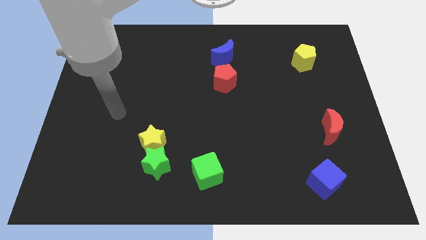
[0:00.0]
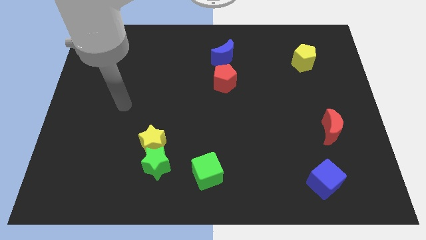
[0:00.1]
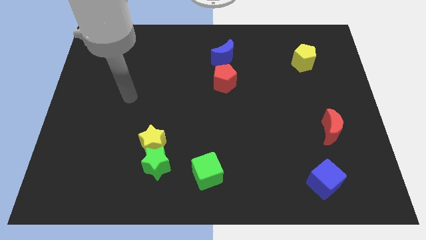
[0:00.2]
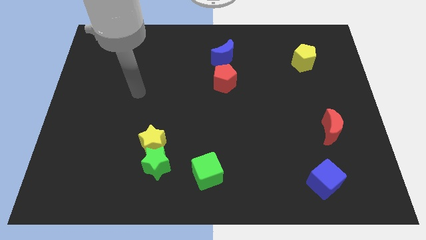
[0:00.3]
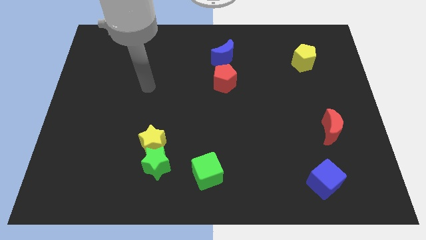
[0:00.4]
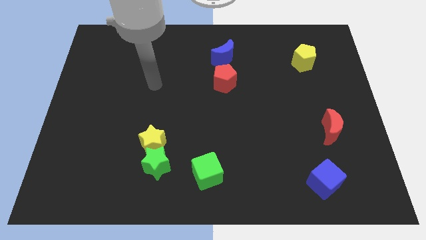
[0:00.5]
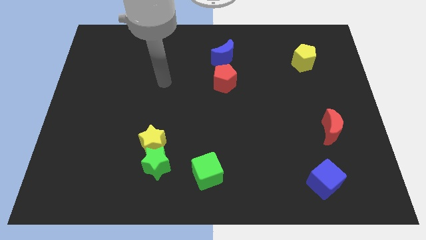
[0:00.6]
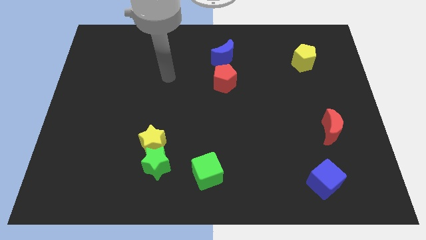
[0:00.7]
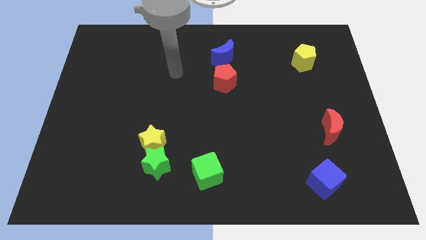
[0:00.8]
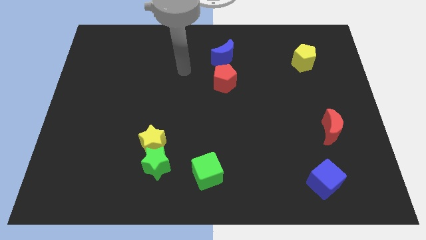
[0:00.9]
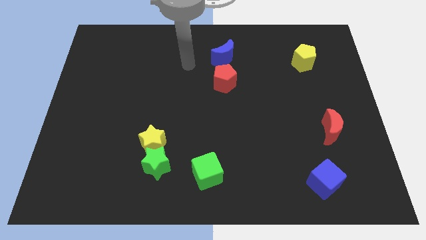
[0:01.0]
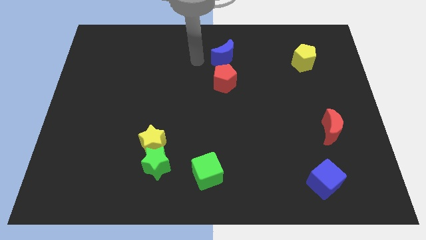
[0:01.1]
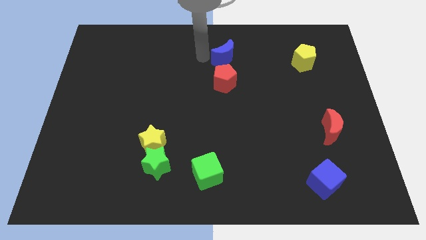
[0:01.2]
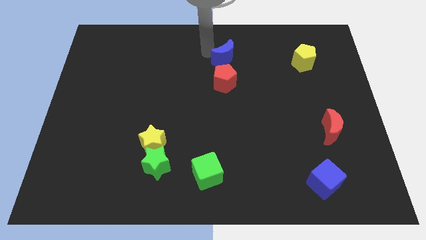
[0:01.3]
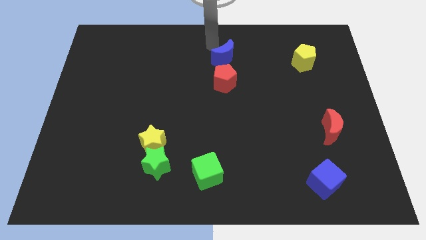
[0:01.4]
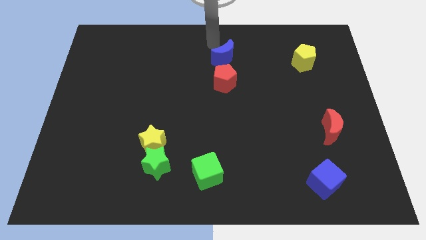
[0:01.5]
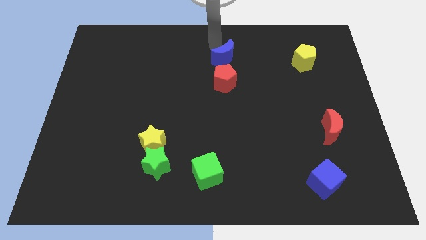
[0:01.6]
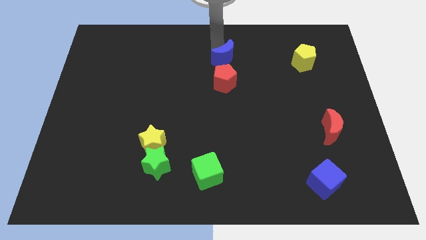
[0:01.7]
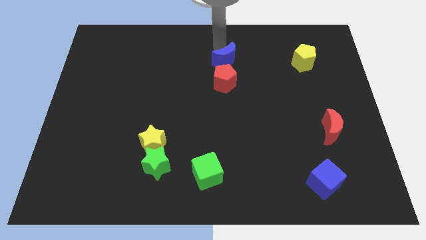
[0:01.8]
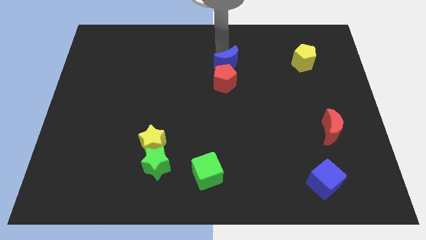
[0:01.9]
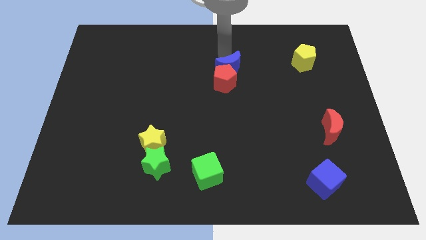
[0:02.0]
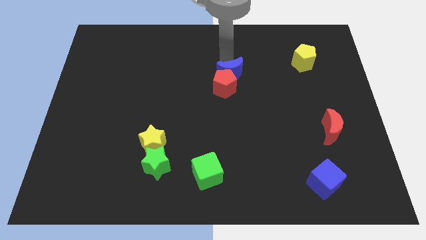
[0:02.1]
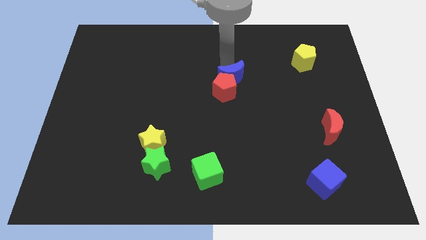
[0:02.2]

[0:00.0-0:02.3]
push the blue moon downwards a little bit

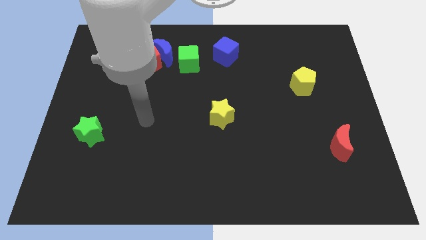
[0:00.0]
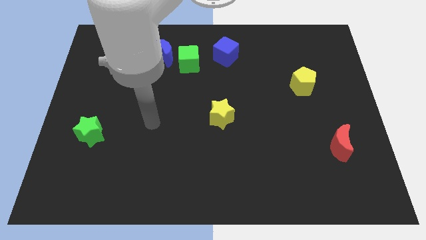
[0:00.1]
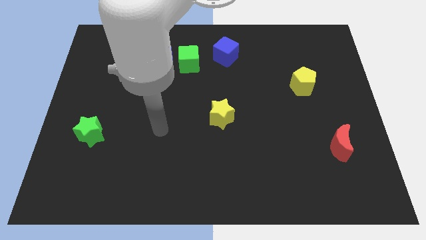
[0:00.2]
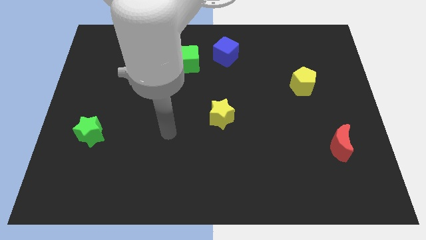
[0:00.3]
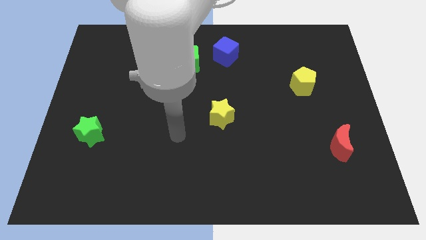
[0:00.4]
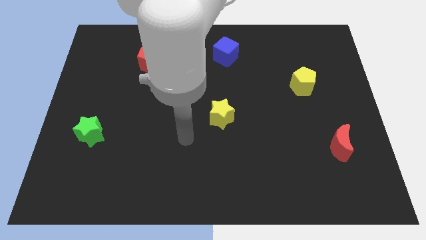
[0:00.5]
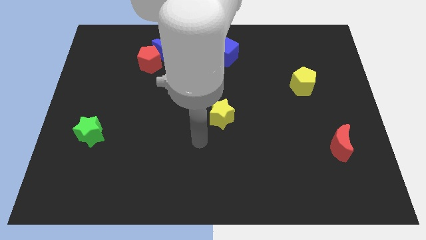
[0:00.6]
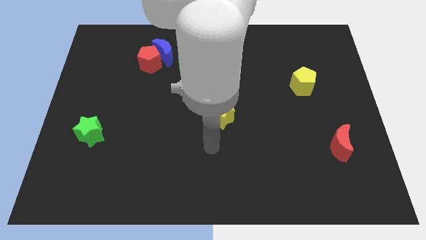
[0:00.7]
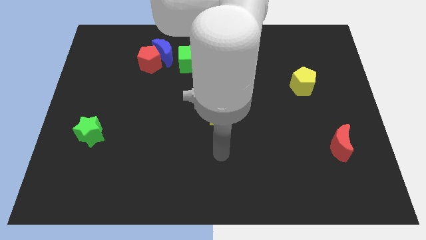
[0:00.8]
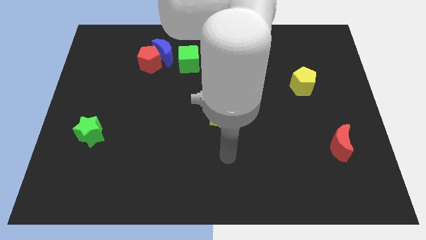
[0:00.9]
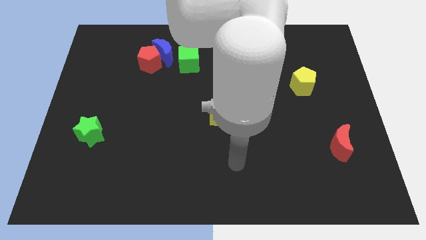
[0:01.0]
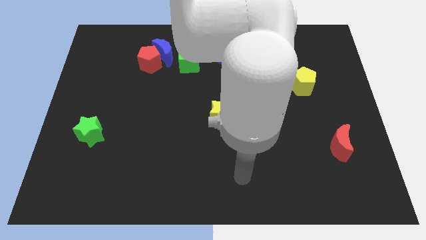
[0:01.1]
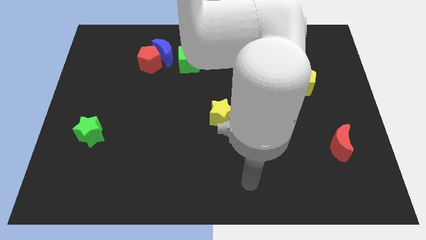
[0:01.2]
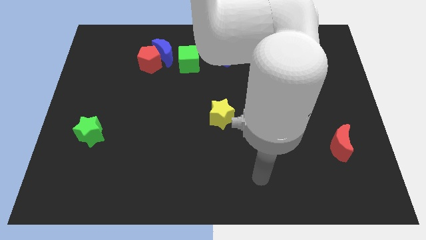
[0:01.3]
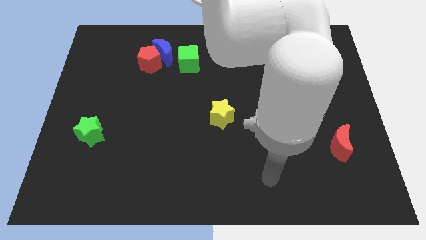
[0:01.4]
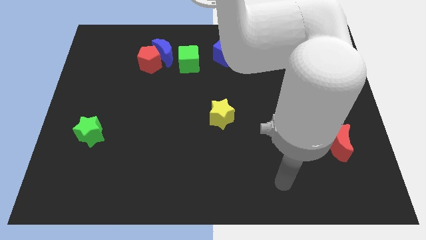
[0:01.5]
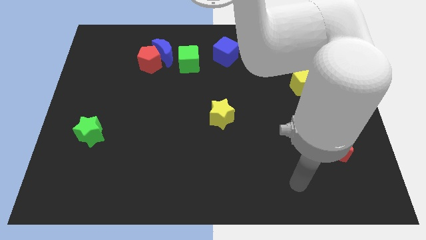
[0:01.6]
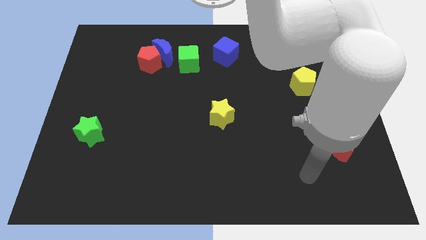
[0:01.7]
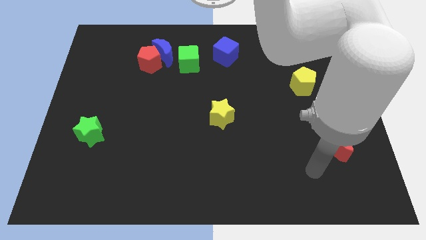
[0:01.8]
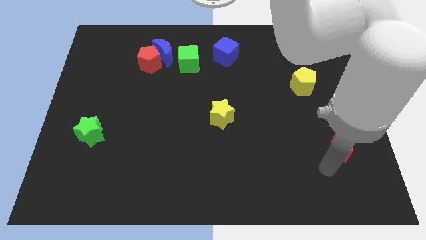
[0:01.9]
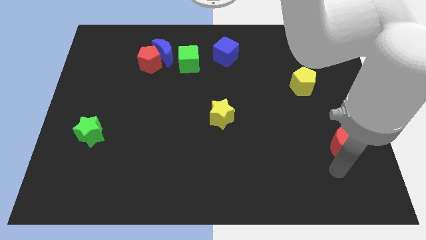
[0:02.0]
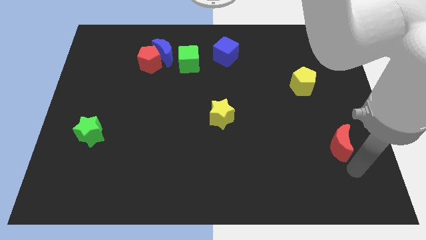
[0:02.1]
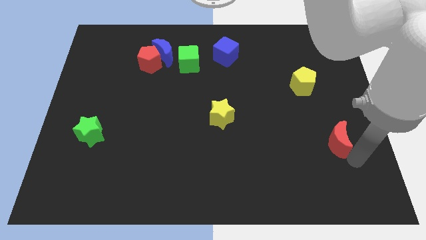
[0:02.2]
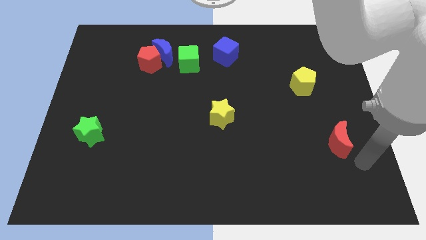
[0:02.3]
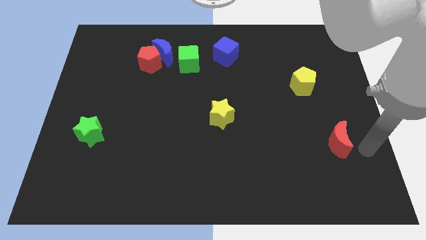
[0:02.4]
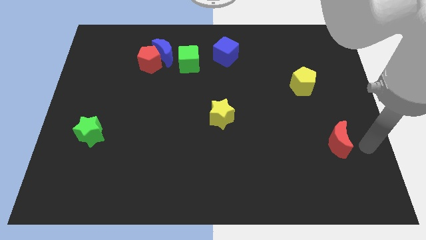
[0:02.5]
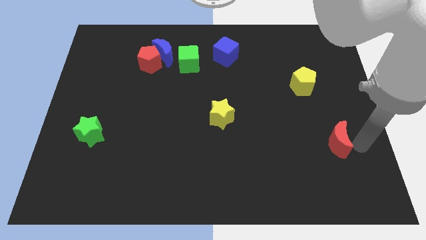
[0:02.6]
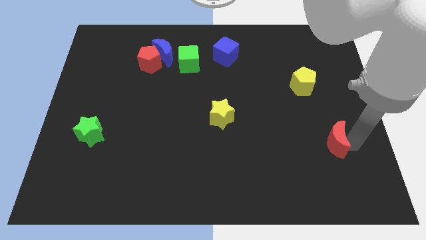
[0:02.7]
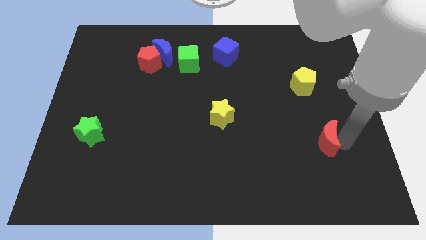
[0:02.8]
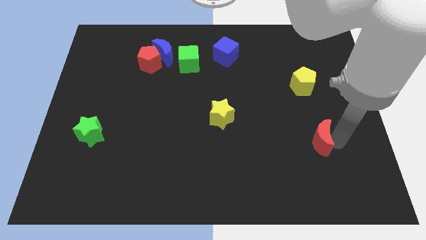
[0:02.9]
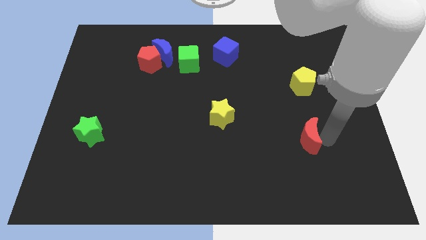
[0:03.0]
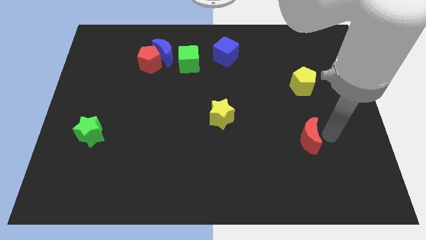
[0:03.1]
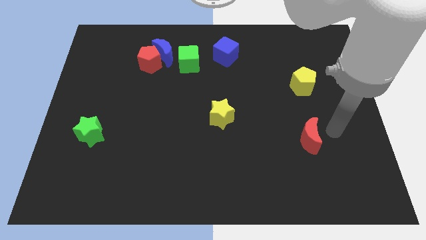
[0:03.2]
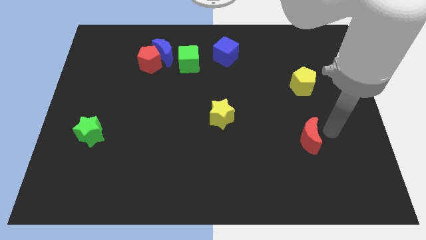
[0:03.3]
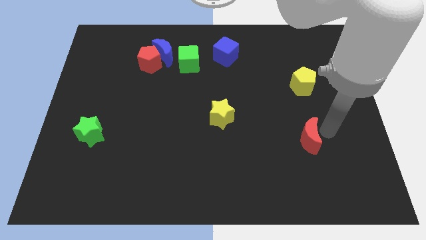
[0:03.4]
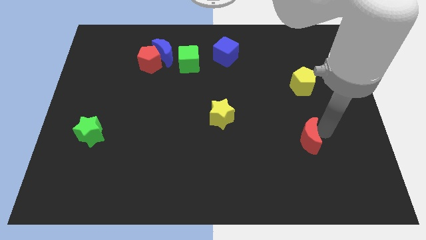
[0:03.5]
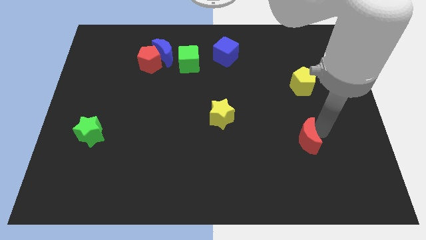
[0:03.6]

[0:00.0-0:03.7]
move the red moon slightly left

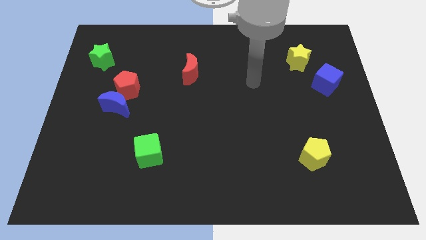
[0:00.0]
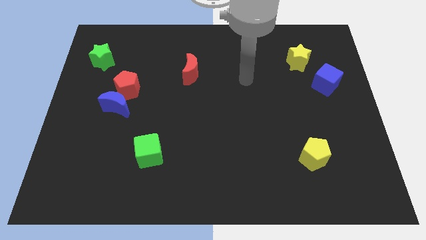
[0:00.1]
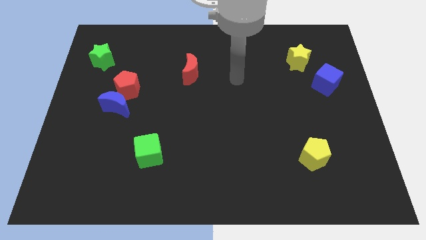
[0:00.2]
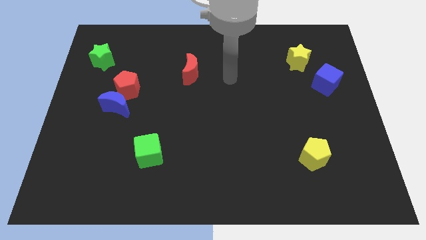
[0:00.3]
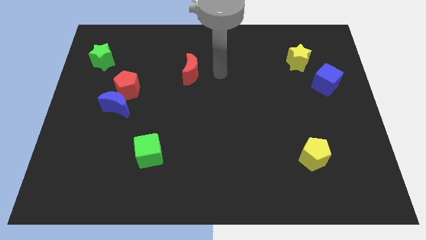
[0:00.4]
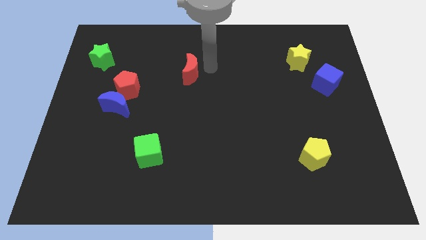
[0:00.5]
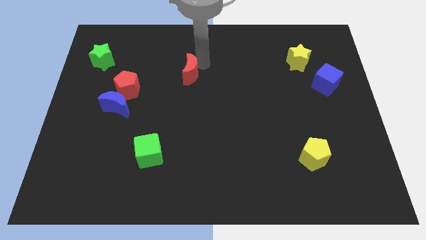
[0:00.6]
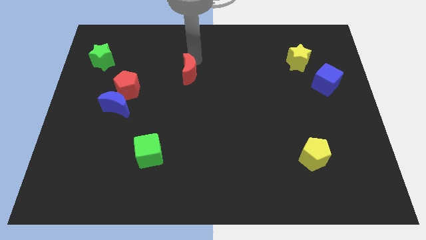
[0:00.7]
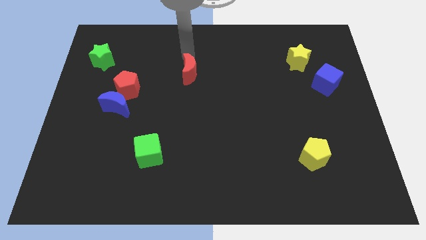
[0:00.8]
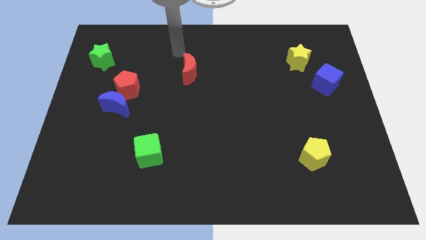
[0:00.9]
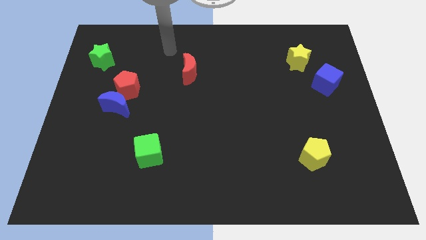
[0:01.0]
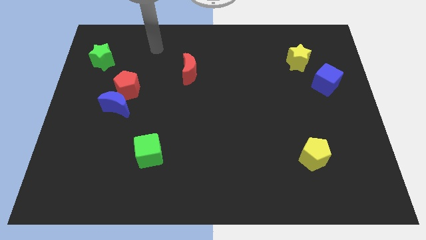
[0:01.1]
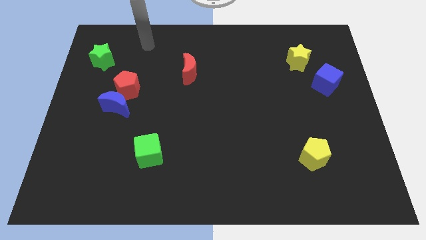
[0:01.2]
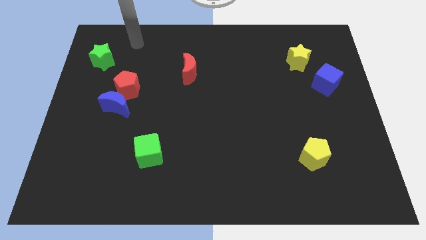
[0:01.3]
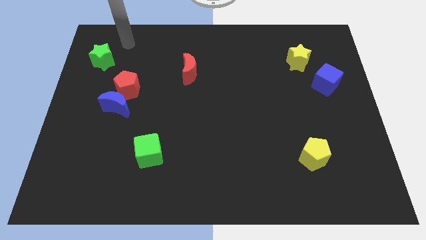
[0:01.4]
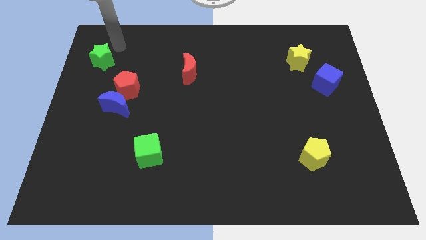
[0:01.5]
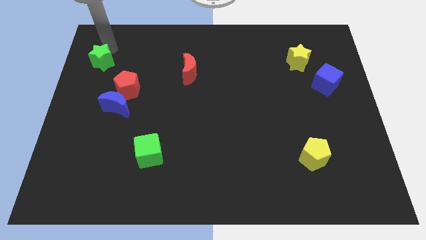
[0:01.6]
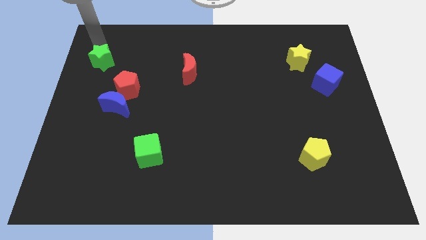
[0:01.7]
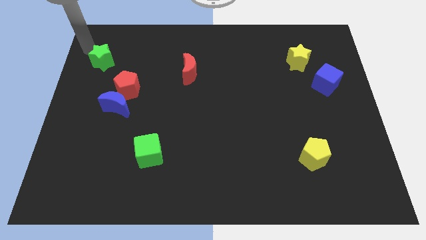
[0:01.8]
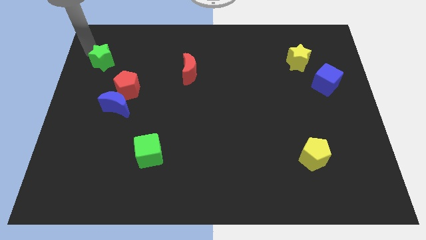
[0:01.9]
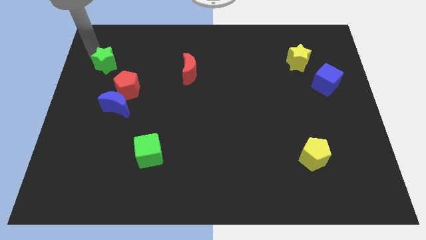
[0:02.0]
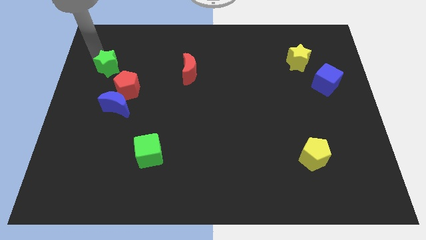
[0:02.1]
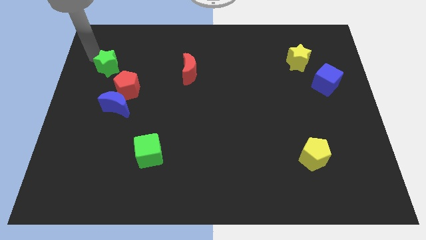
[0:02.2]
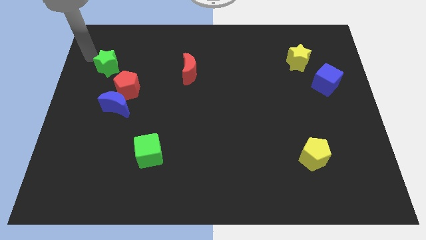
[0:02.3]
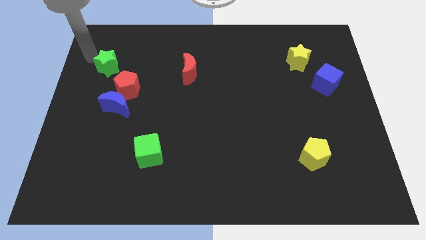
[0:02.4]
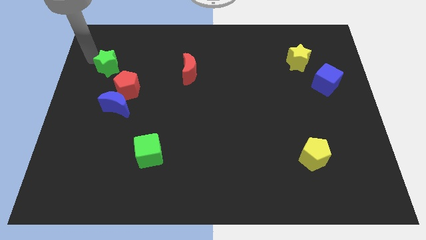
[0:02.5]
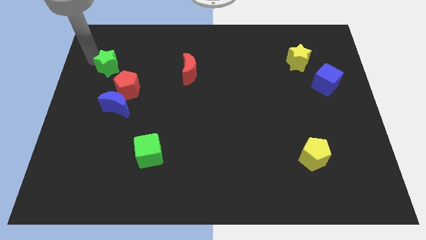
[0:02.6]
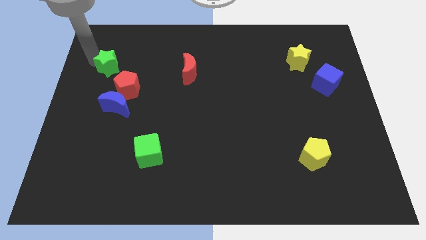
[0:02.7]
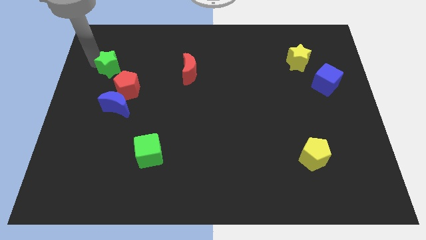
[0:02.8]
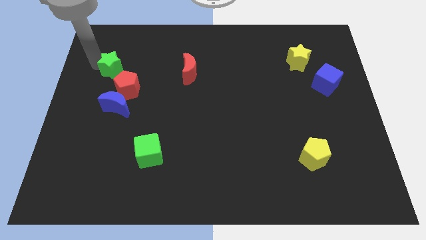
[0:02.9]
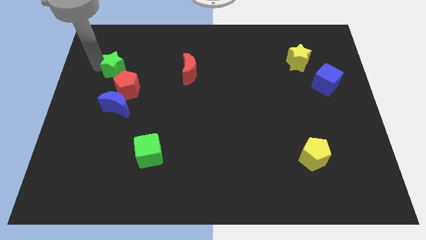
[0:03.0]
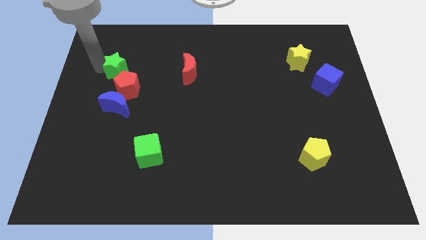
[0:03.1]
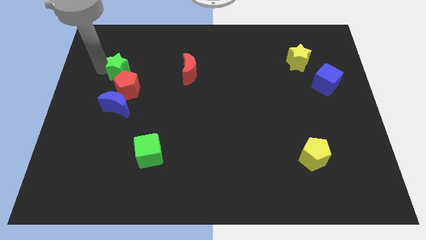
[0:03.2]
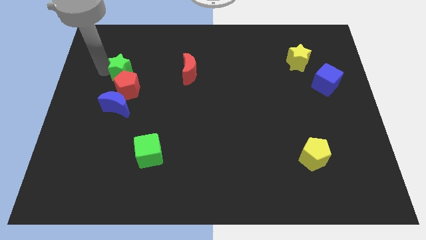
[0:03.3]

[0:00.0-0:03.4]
slightly move the green star diagonally downwards and right
